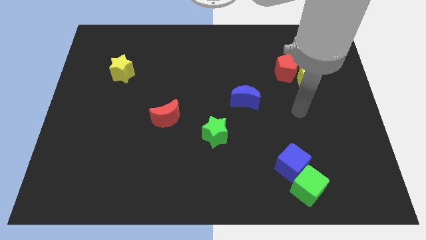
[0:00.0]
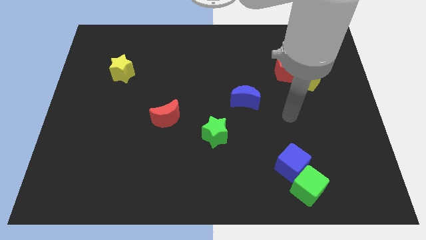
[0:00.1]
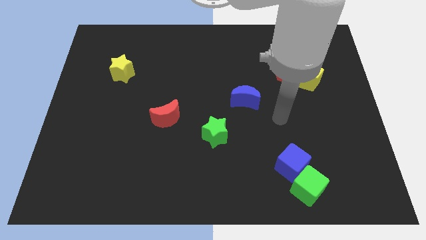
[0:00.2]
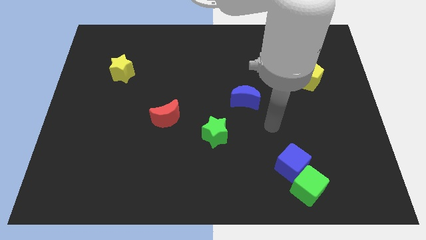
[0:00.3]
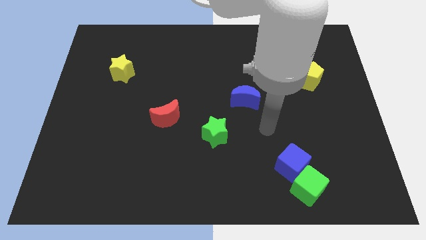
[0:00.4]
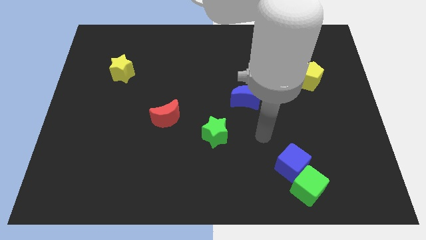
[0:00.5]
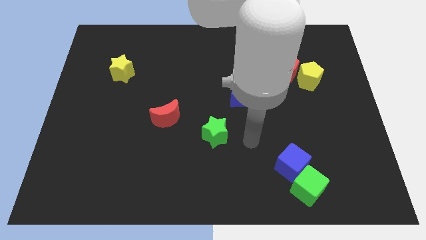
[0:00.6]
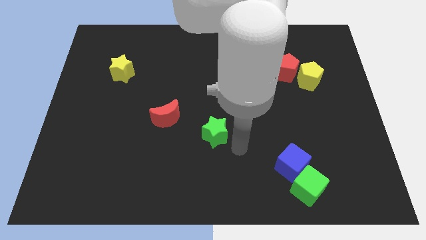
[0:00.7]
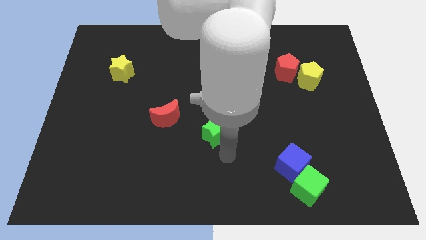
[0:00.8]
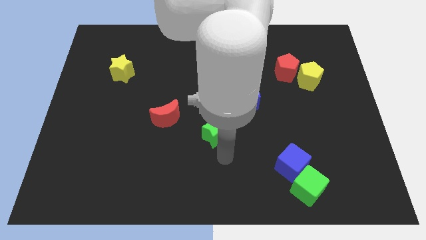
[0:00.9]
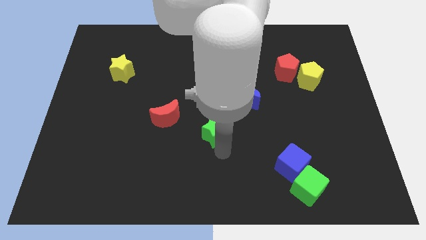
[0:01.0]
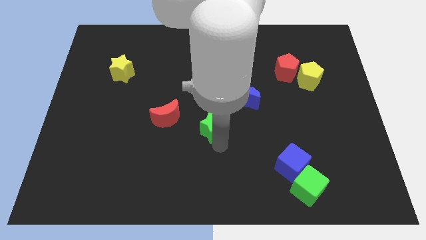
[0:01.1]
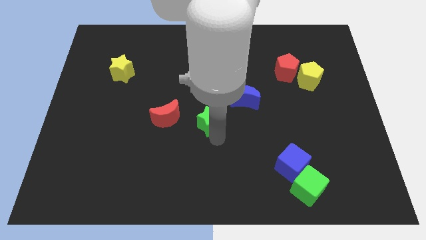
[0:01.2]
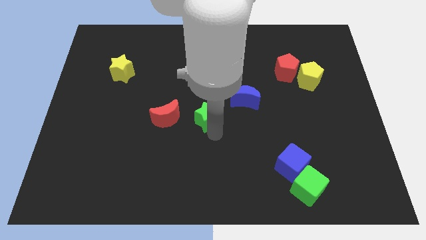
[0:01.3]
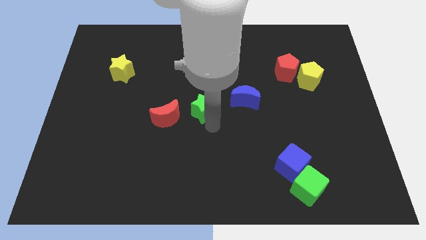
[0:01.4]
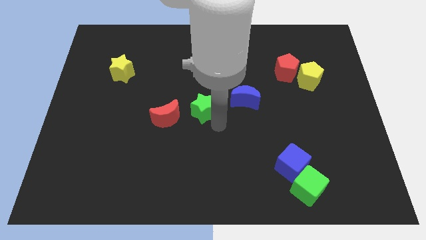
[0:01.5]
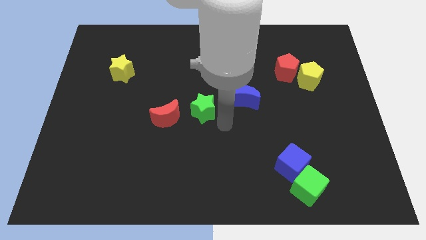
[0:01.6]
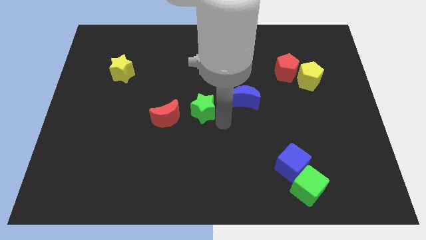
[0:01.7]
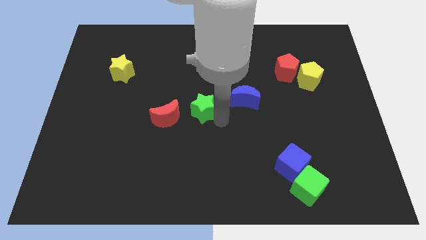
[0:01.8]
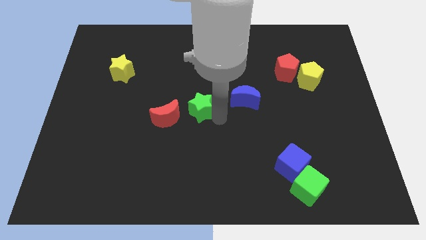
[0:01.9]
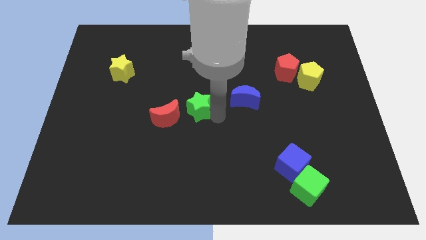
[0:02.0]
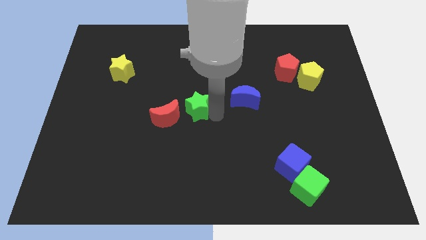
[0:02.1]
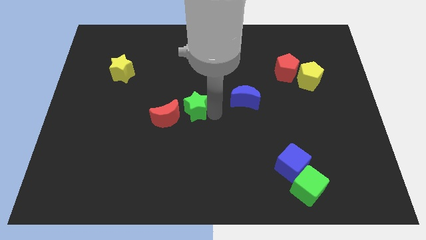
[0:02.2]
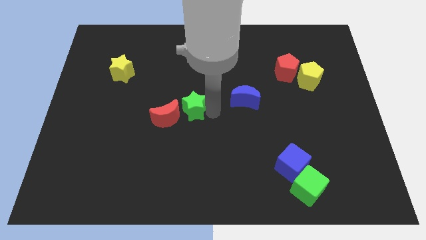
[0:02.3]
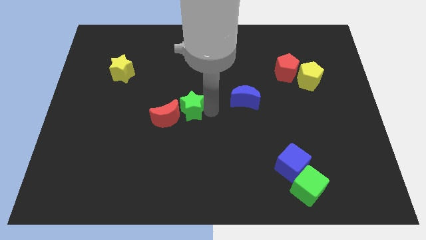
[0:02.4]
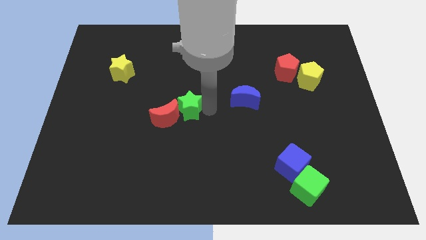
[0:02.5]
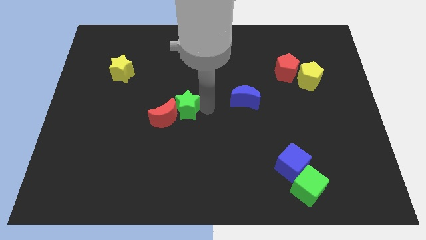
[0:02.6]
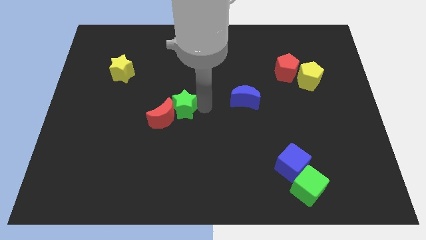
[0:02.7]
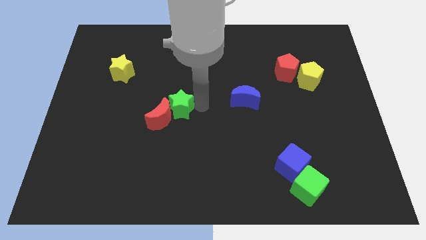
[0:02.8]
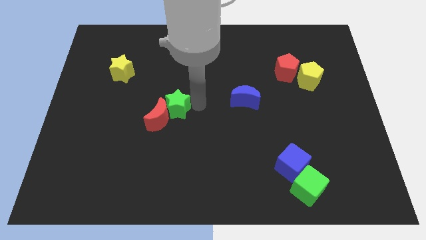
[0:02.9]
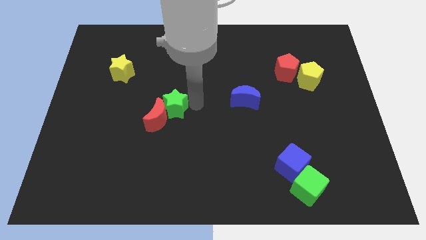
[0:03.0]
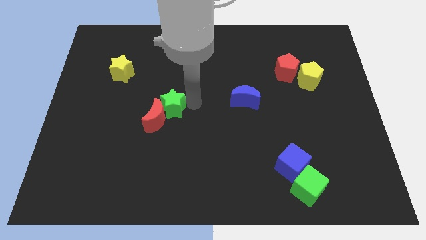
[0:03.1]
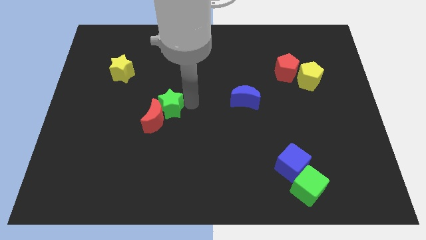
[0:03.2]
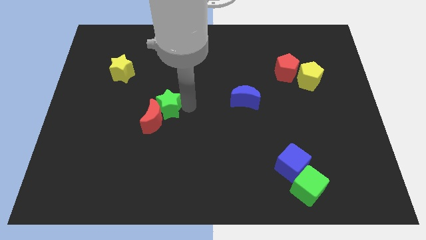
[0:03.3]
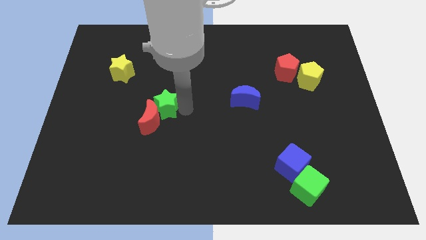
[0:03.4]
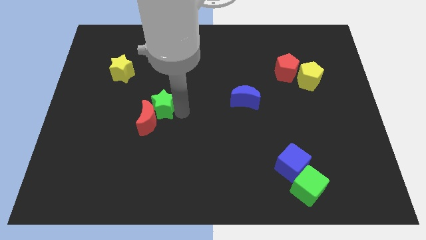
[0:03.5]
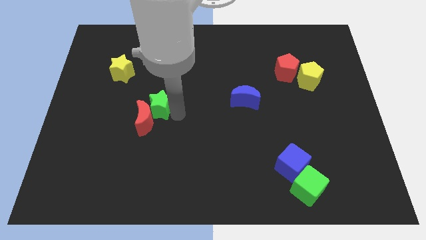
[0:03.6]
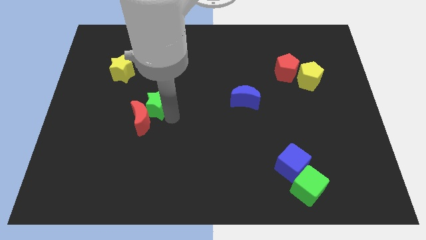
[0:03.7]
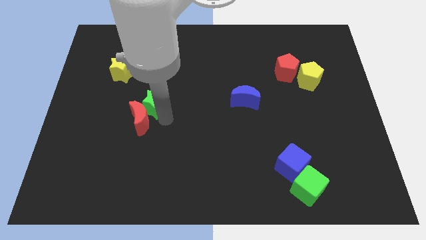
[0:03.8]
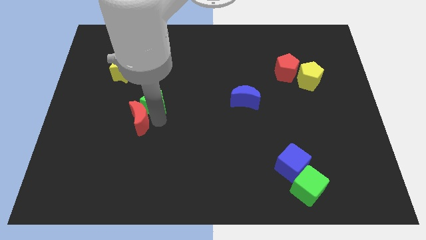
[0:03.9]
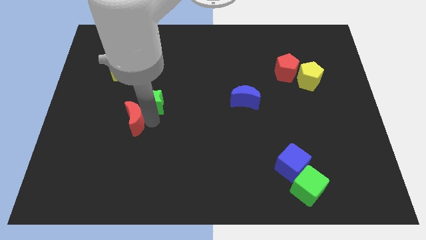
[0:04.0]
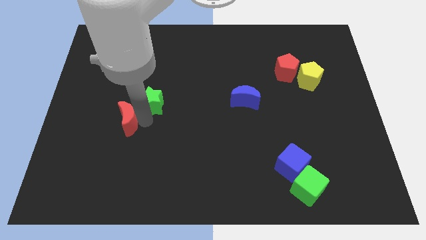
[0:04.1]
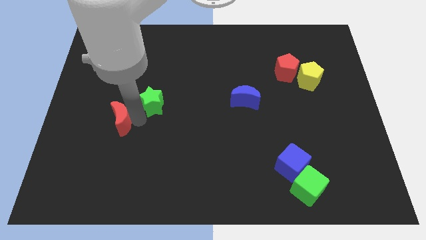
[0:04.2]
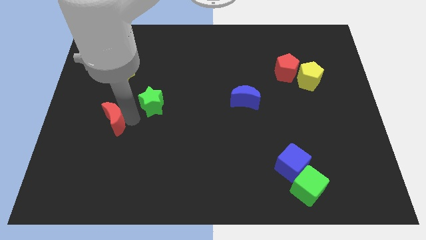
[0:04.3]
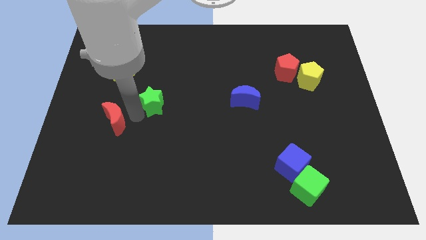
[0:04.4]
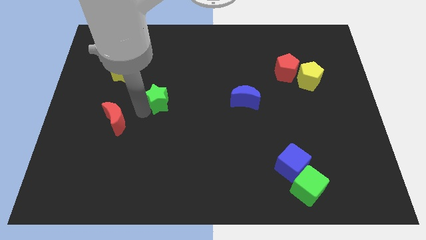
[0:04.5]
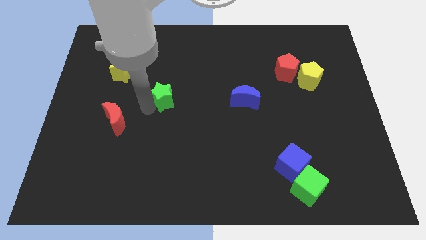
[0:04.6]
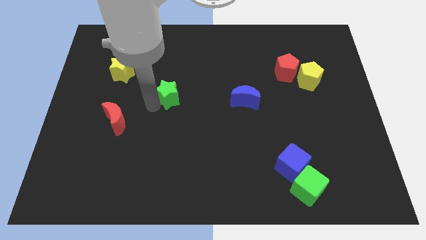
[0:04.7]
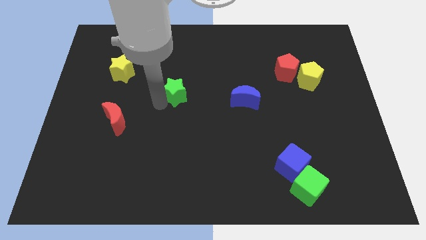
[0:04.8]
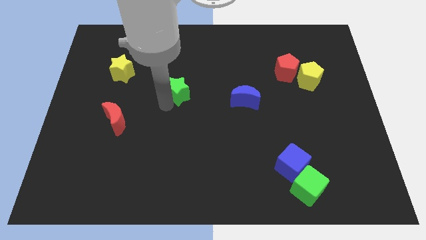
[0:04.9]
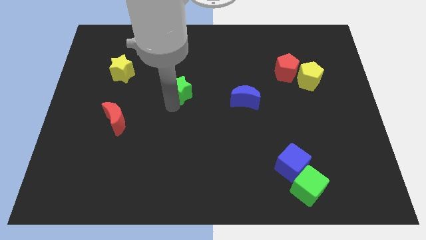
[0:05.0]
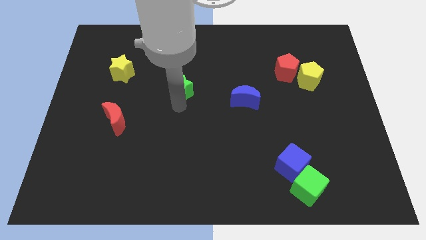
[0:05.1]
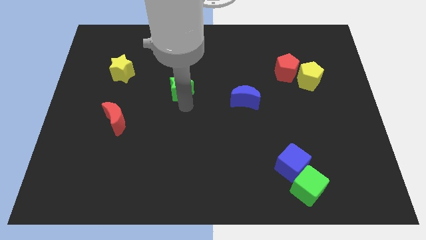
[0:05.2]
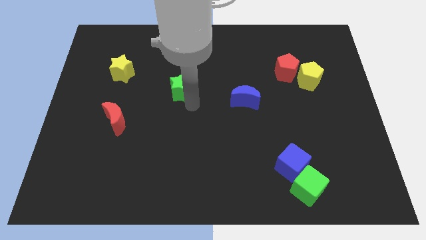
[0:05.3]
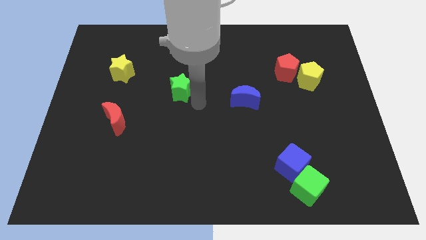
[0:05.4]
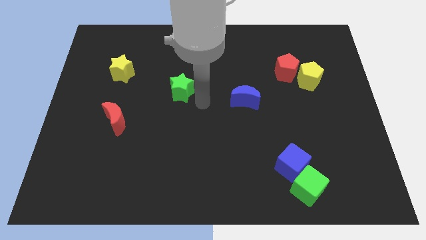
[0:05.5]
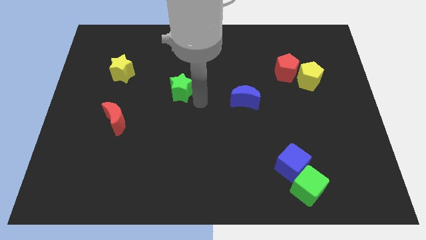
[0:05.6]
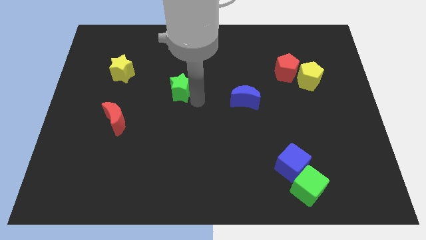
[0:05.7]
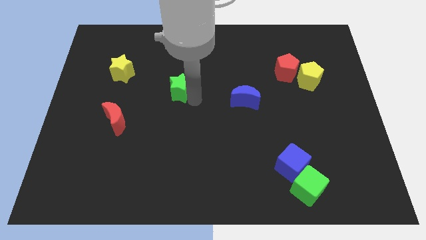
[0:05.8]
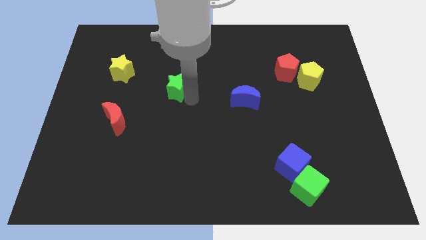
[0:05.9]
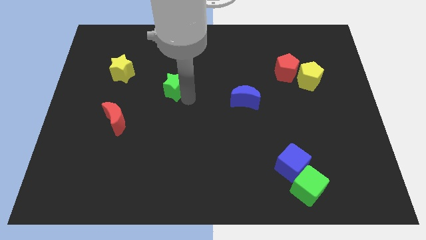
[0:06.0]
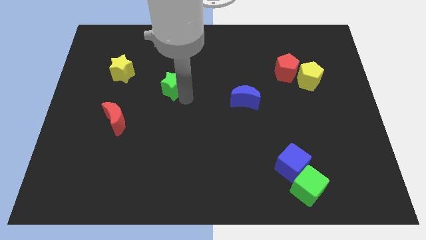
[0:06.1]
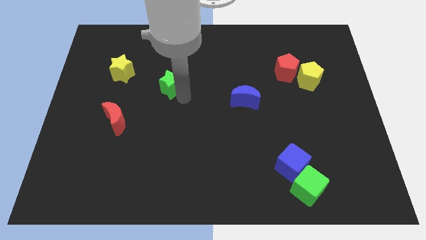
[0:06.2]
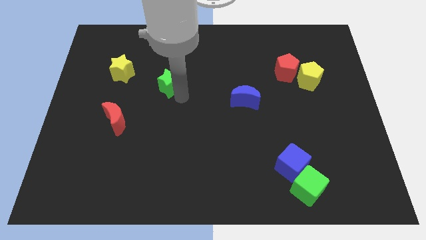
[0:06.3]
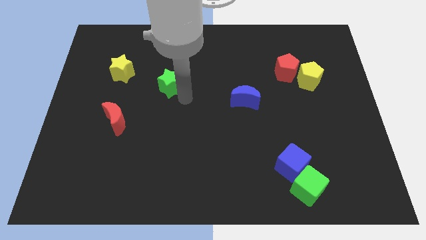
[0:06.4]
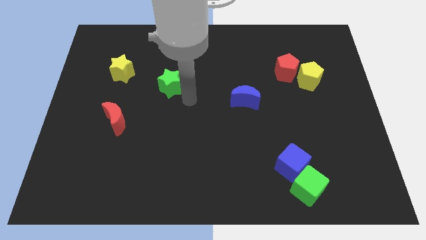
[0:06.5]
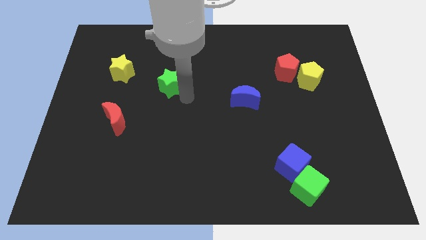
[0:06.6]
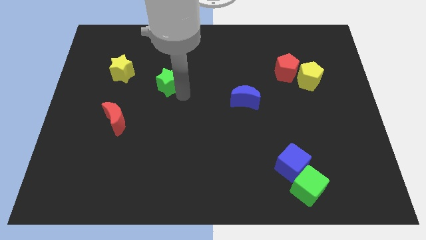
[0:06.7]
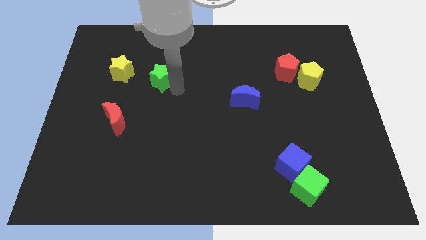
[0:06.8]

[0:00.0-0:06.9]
slide the green star upwards and left diagonally

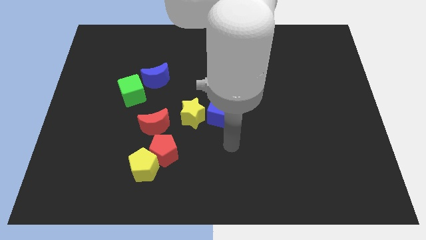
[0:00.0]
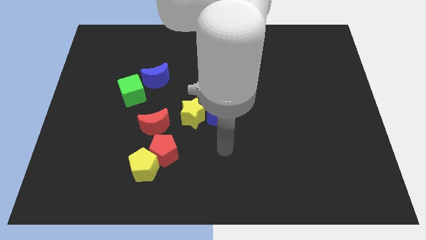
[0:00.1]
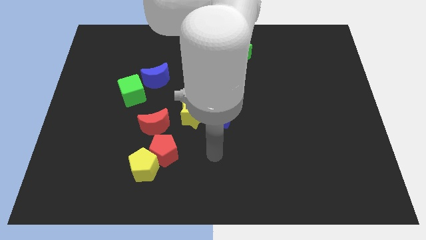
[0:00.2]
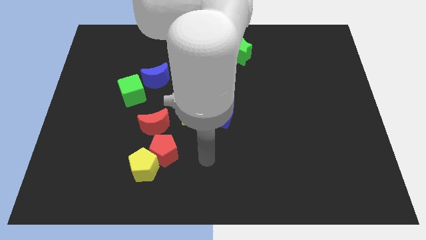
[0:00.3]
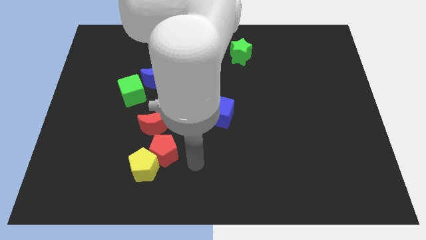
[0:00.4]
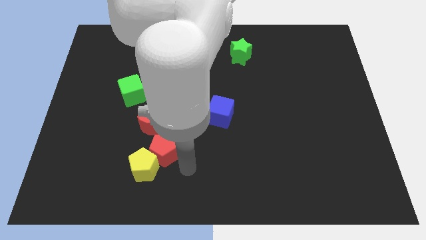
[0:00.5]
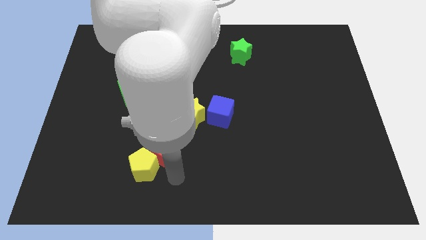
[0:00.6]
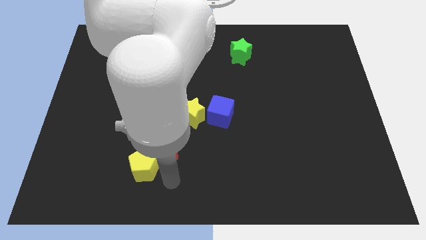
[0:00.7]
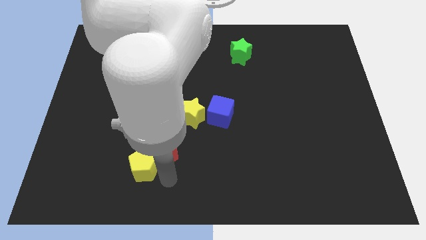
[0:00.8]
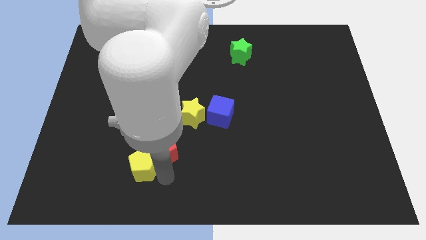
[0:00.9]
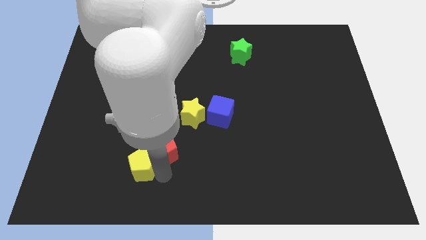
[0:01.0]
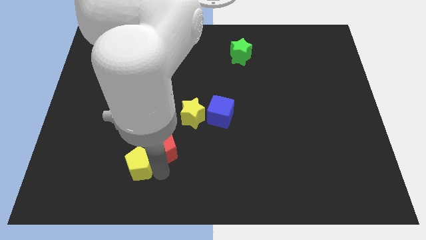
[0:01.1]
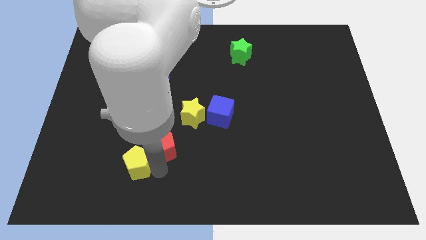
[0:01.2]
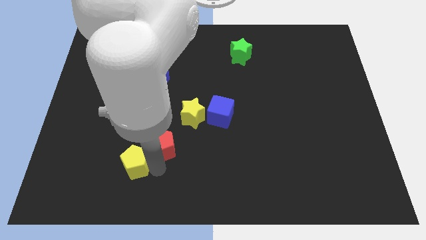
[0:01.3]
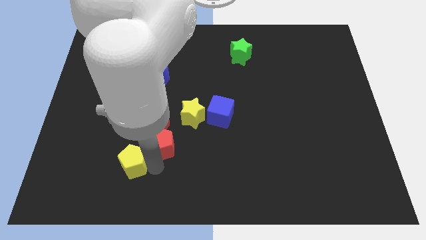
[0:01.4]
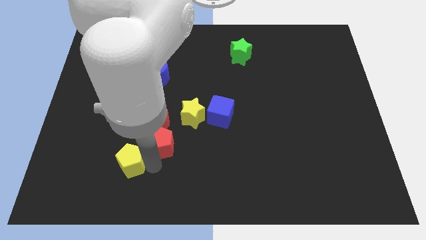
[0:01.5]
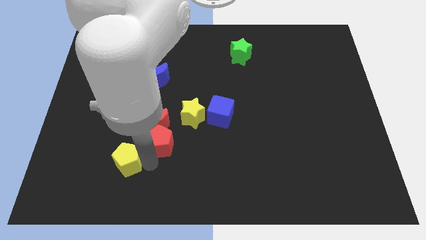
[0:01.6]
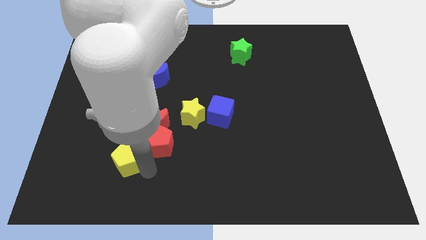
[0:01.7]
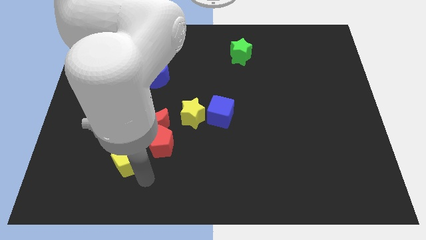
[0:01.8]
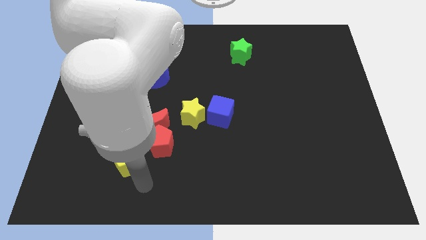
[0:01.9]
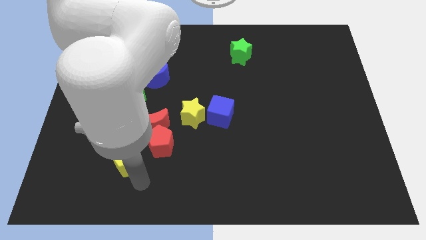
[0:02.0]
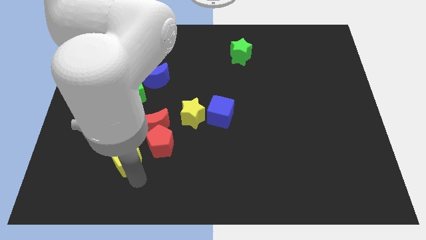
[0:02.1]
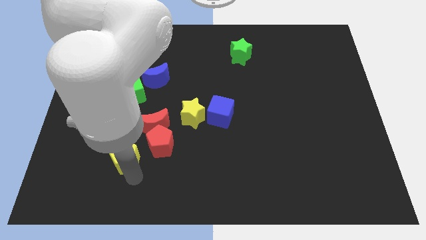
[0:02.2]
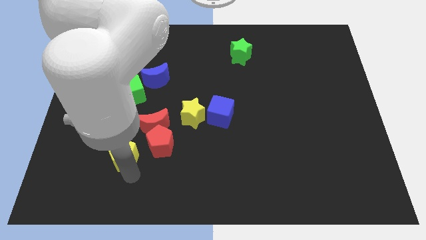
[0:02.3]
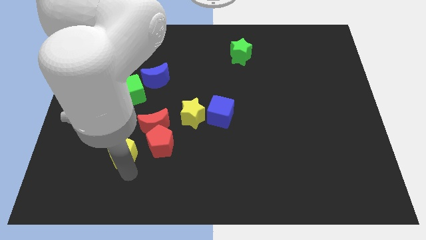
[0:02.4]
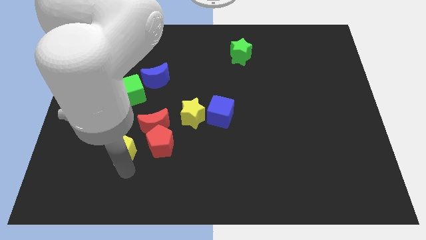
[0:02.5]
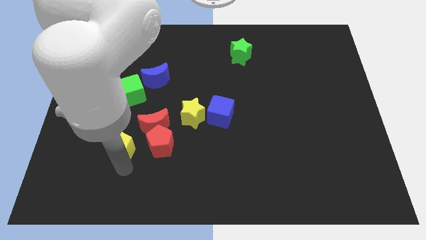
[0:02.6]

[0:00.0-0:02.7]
push the yellow pentagon somewhat up and to the left
